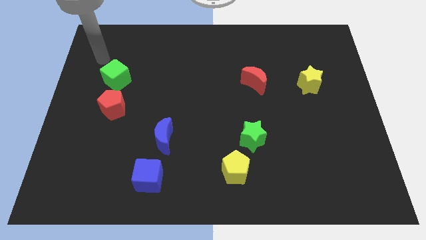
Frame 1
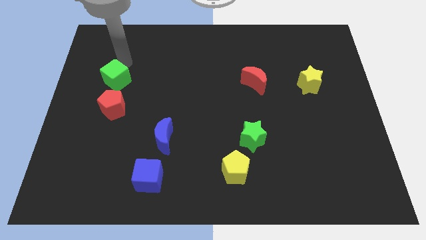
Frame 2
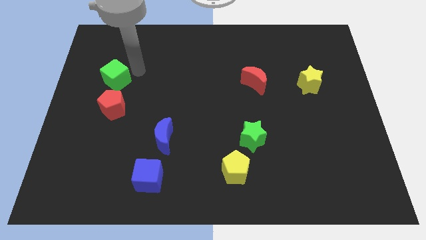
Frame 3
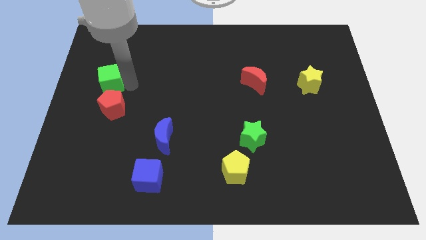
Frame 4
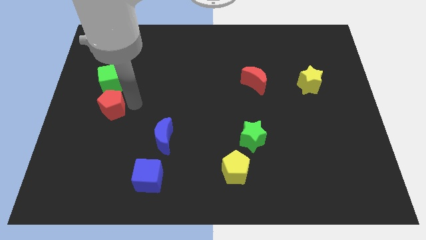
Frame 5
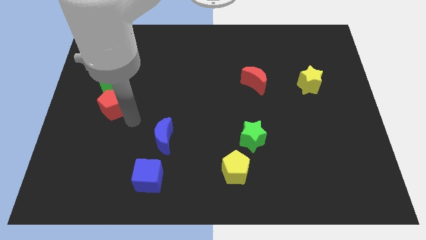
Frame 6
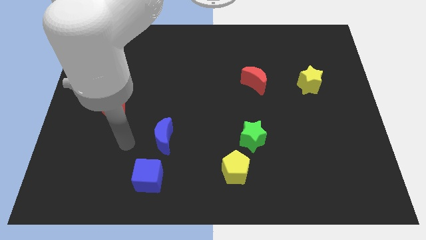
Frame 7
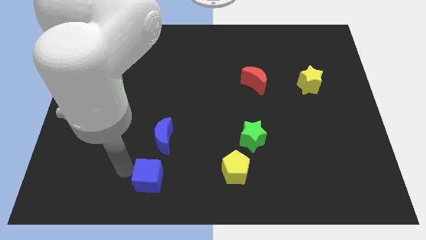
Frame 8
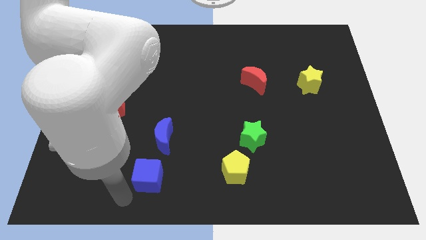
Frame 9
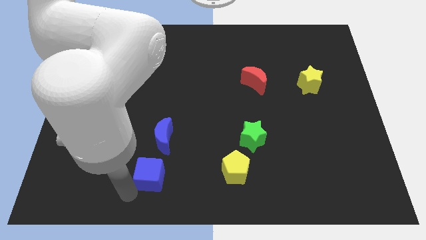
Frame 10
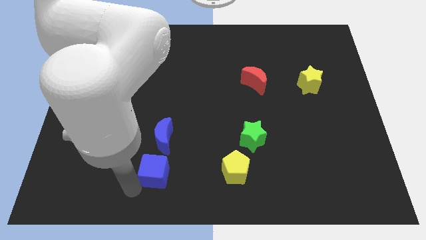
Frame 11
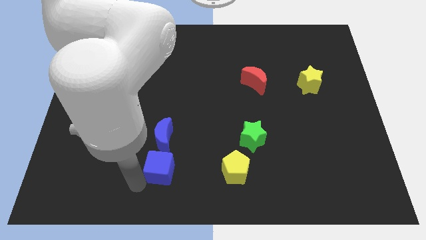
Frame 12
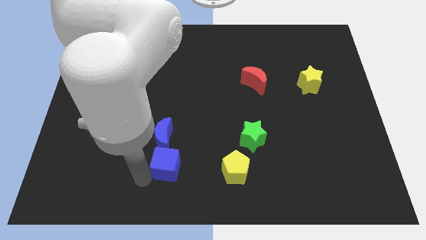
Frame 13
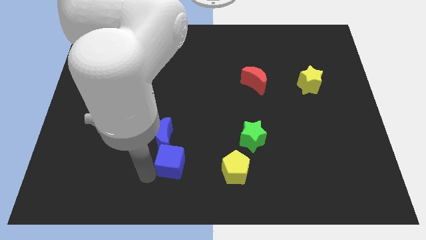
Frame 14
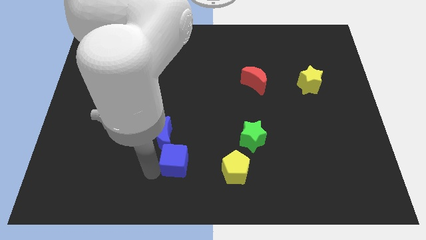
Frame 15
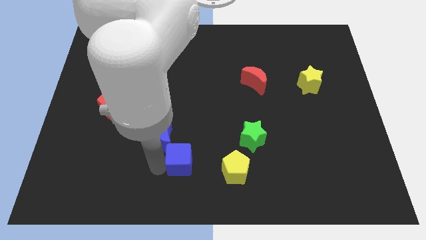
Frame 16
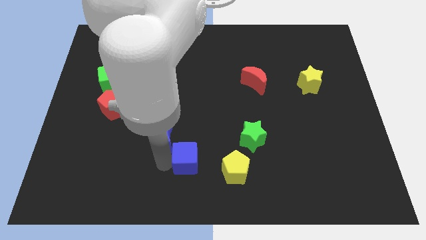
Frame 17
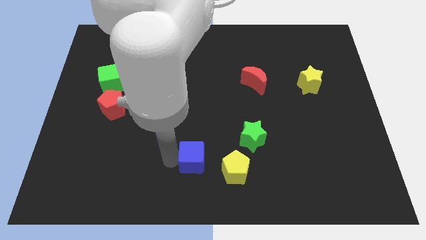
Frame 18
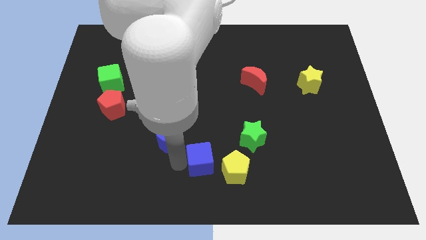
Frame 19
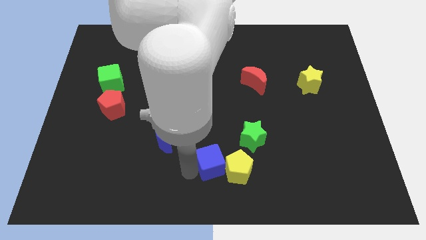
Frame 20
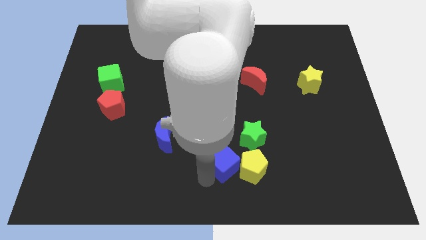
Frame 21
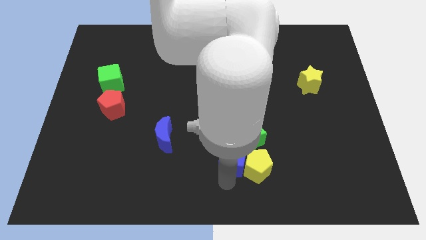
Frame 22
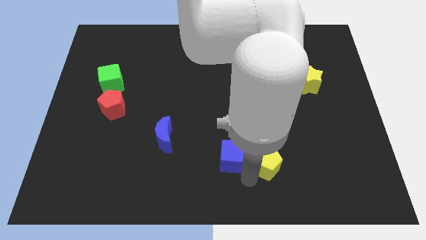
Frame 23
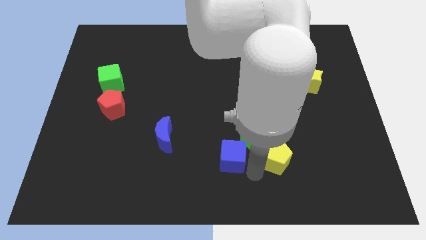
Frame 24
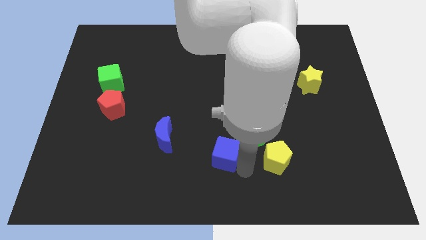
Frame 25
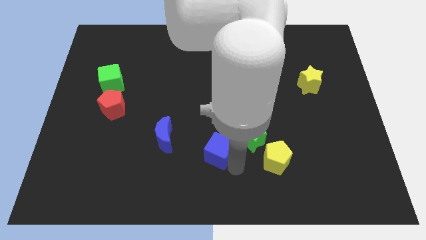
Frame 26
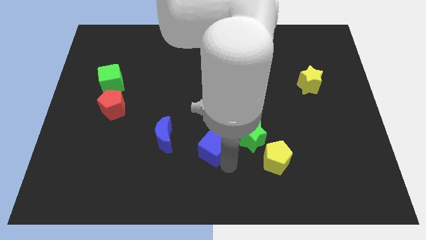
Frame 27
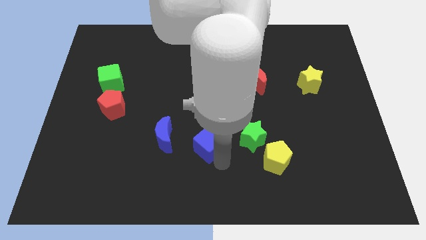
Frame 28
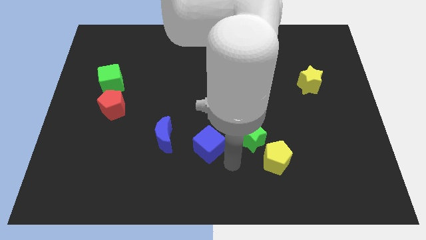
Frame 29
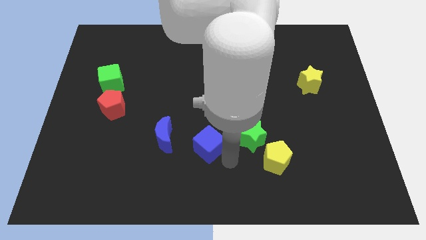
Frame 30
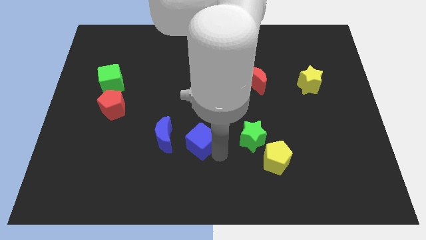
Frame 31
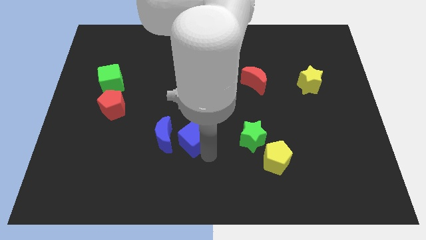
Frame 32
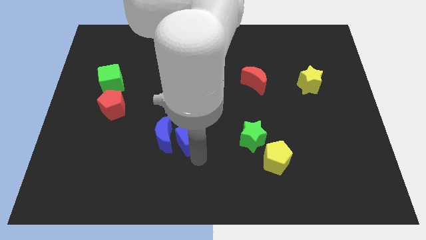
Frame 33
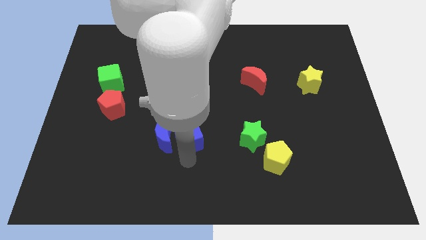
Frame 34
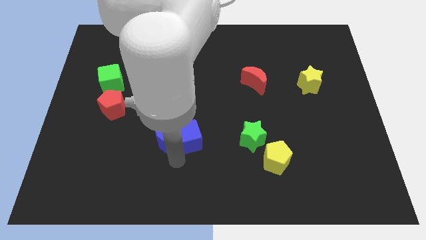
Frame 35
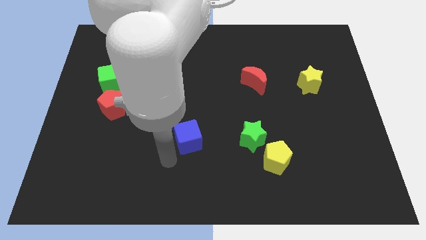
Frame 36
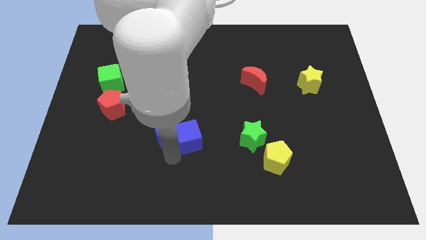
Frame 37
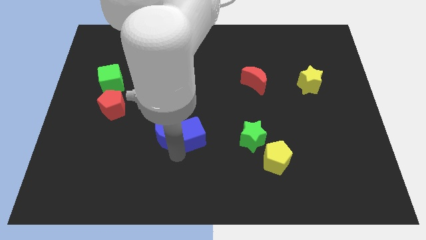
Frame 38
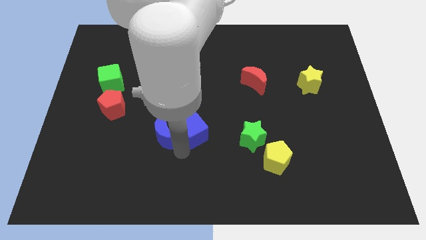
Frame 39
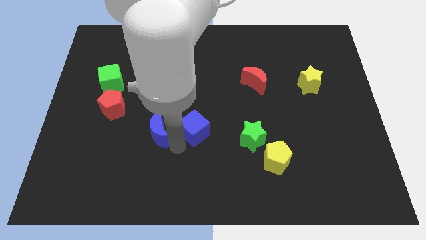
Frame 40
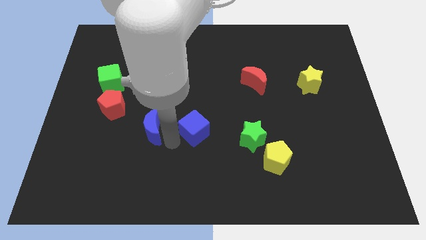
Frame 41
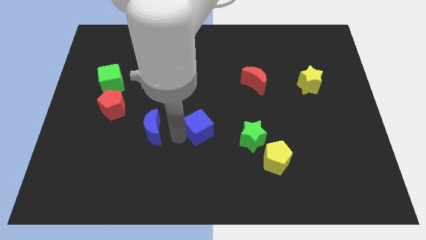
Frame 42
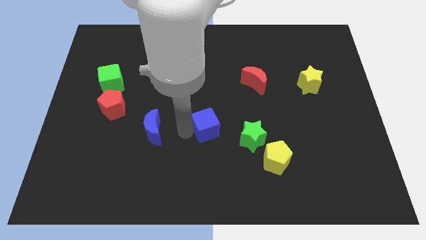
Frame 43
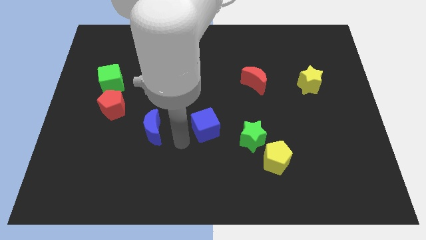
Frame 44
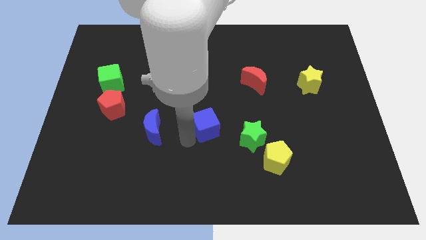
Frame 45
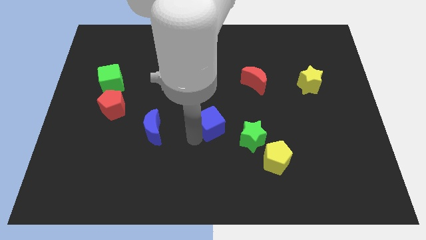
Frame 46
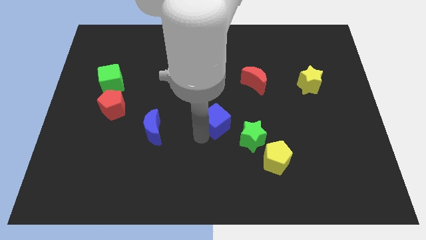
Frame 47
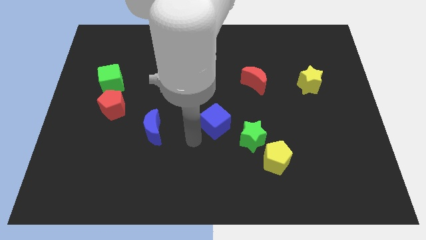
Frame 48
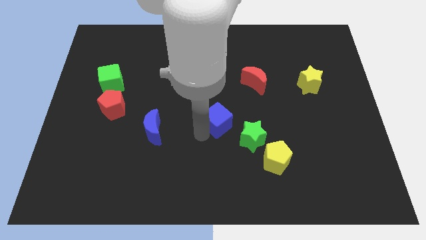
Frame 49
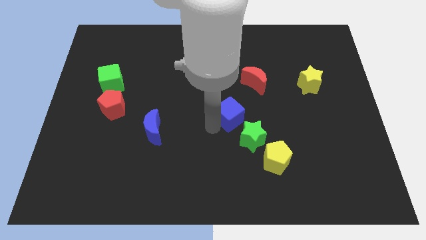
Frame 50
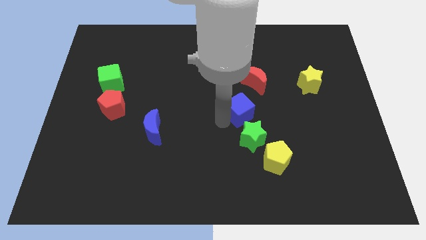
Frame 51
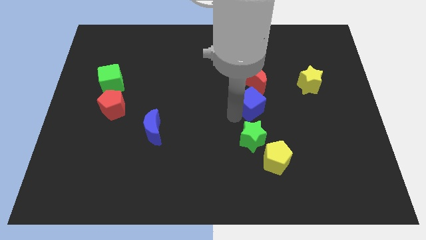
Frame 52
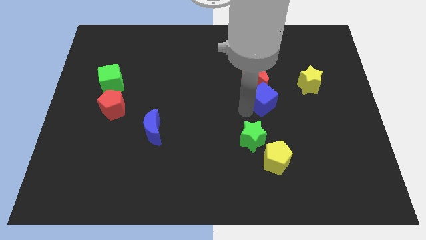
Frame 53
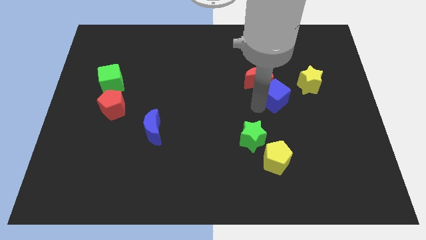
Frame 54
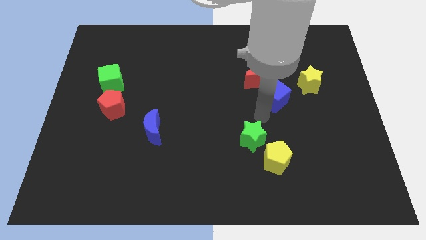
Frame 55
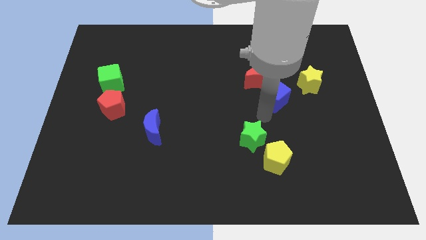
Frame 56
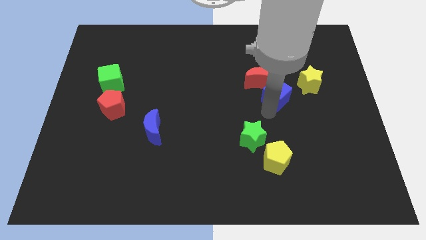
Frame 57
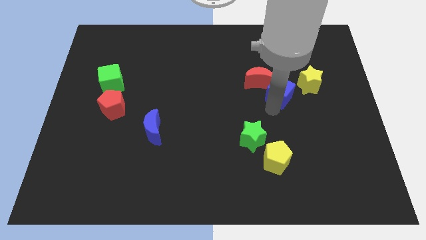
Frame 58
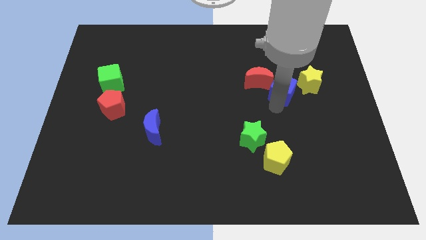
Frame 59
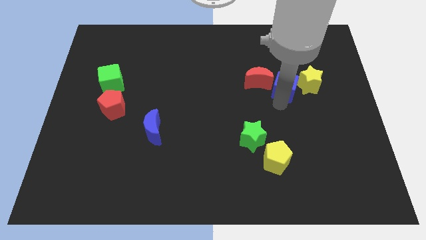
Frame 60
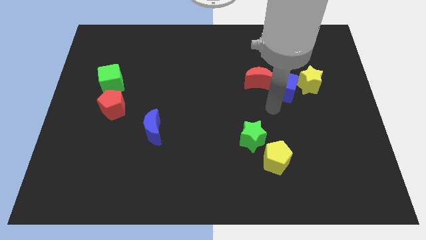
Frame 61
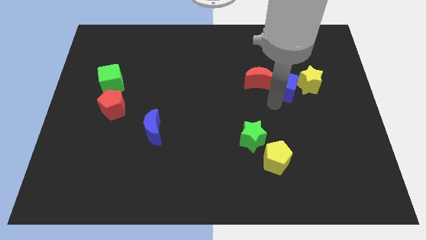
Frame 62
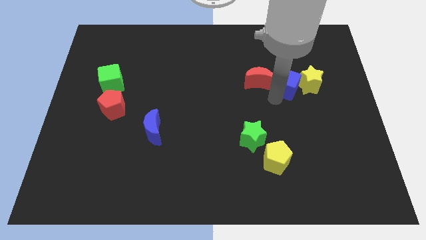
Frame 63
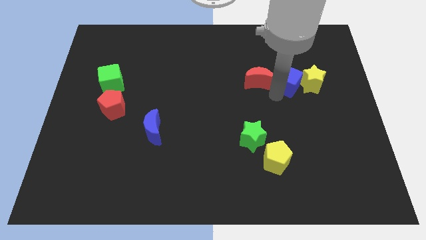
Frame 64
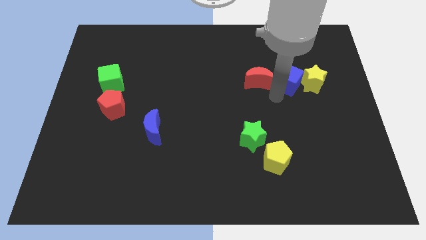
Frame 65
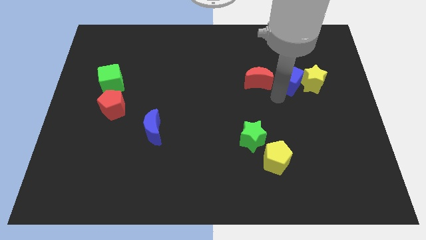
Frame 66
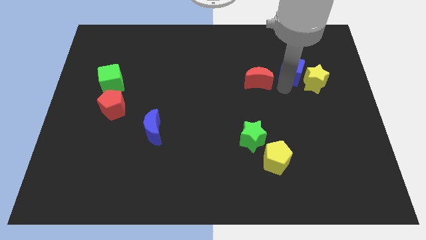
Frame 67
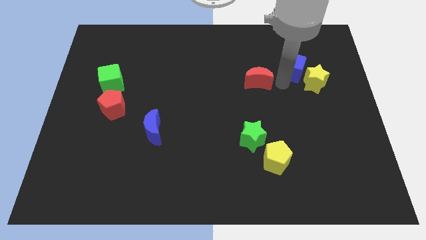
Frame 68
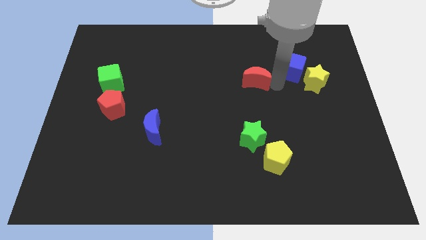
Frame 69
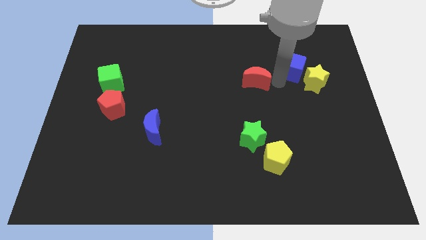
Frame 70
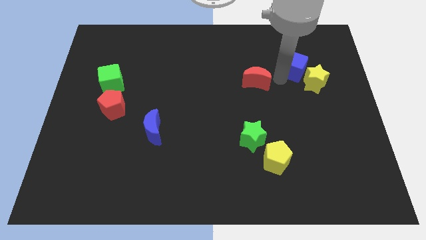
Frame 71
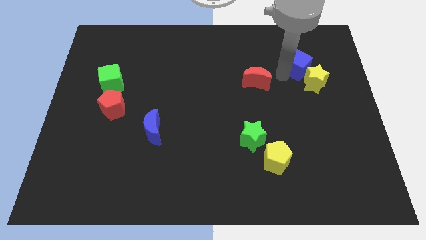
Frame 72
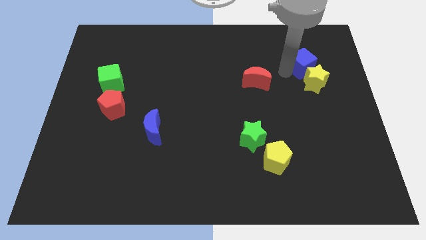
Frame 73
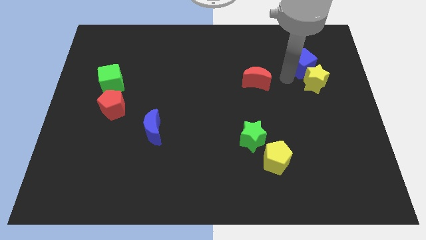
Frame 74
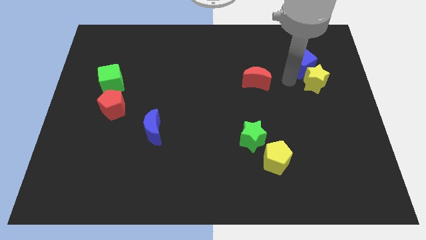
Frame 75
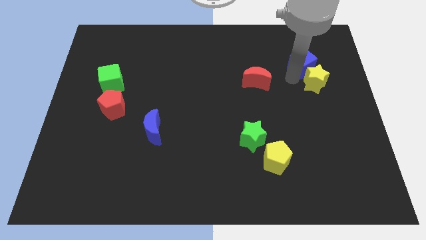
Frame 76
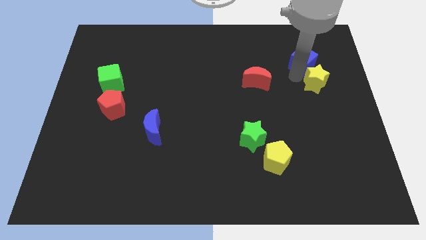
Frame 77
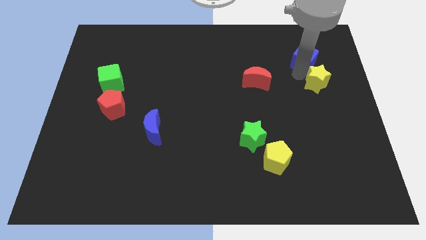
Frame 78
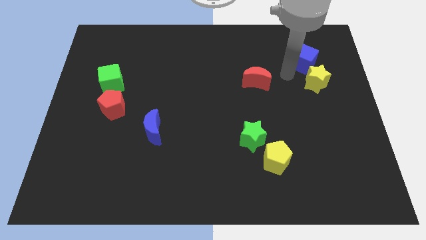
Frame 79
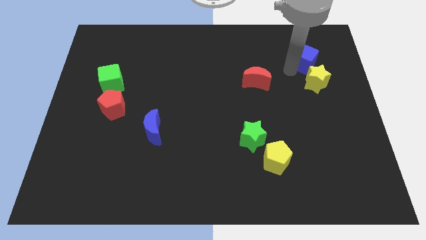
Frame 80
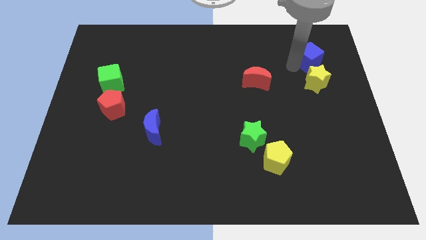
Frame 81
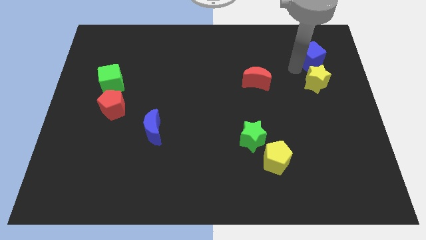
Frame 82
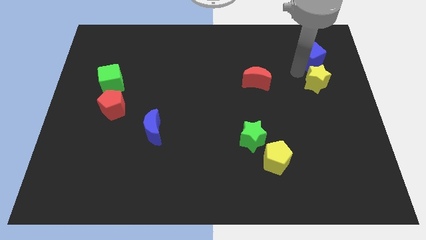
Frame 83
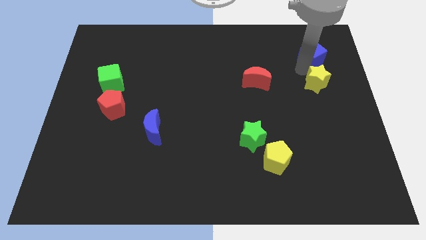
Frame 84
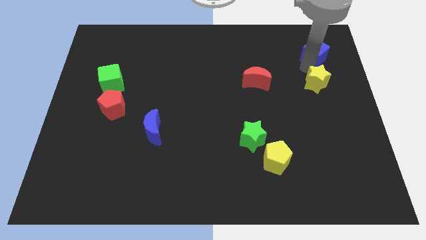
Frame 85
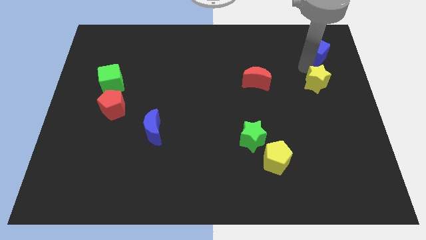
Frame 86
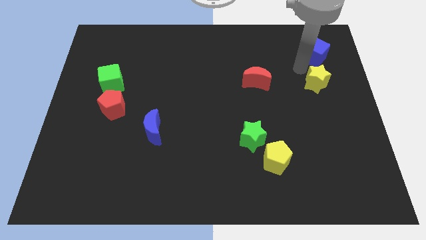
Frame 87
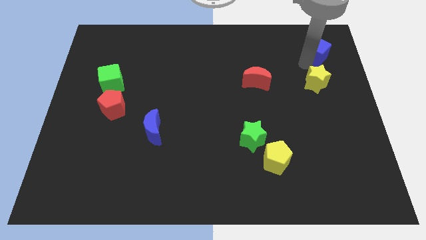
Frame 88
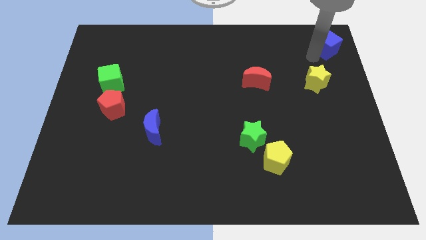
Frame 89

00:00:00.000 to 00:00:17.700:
push the blue cube to the upper right corner

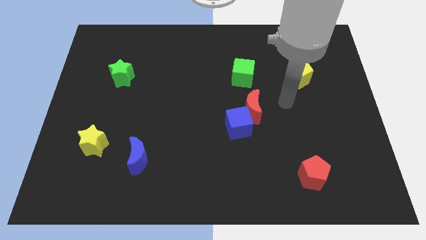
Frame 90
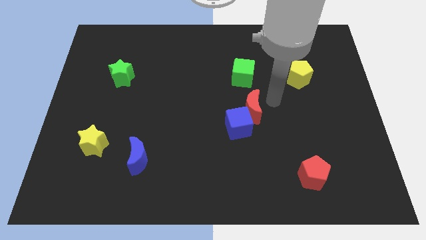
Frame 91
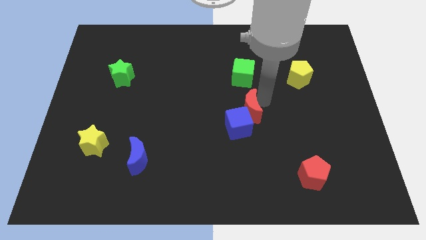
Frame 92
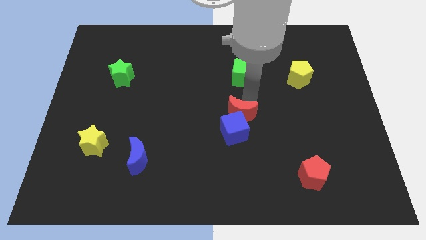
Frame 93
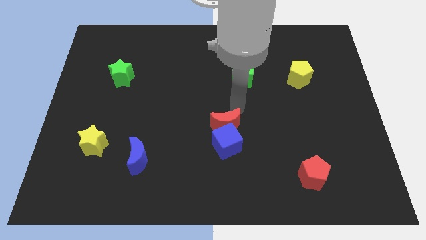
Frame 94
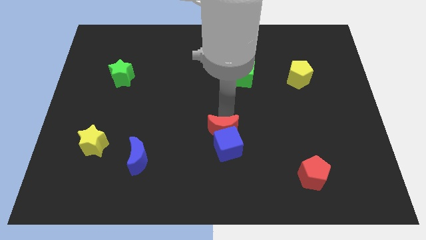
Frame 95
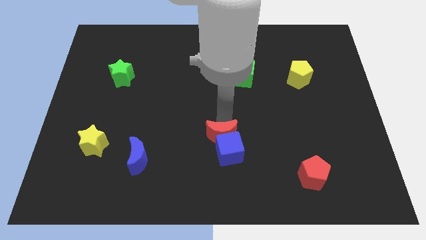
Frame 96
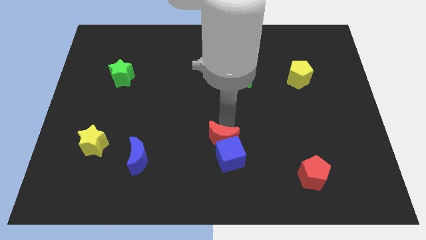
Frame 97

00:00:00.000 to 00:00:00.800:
push the blue cube to the bottom side
